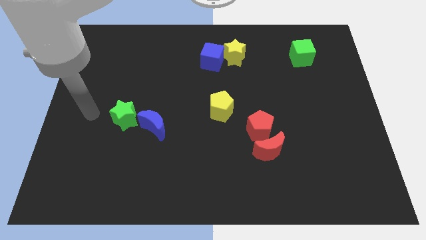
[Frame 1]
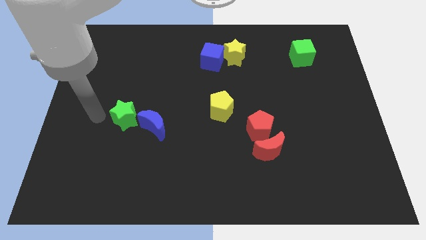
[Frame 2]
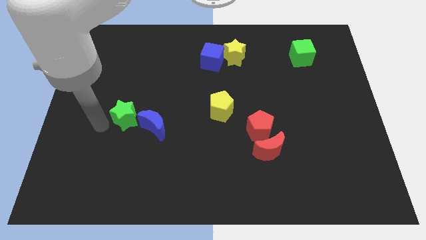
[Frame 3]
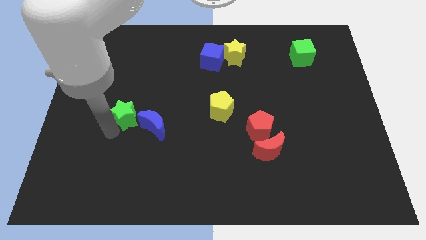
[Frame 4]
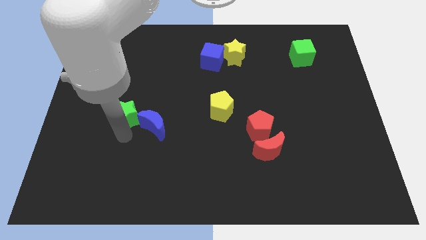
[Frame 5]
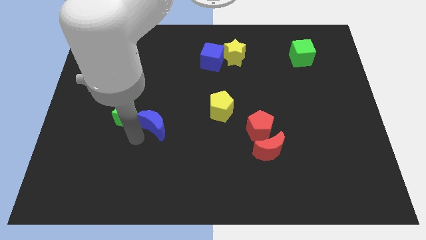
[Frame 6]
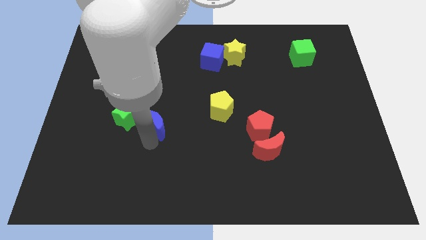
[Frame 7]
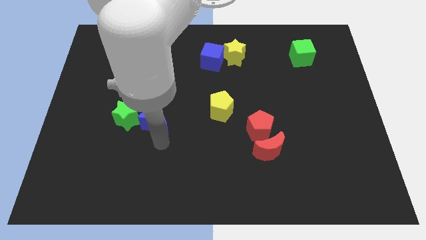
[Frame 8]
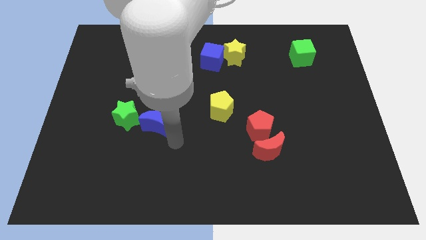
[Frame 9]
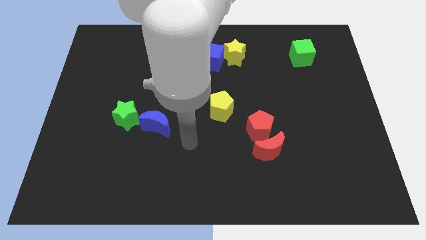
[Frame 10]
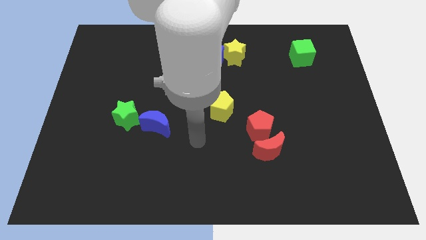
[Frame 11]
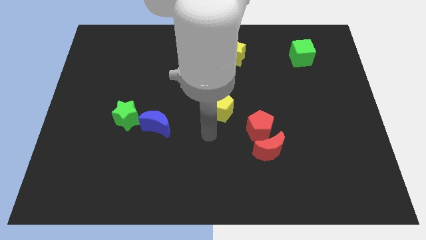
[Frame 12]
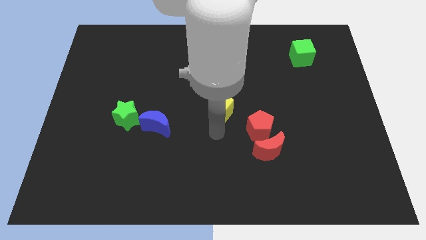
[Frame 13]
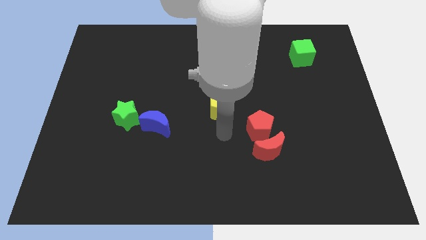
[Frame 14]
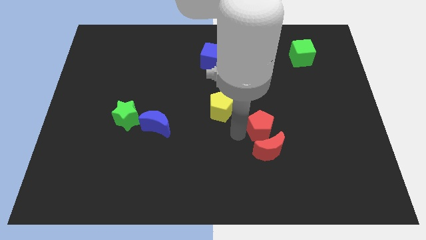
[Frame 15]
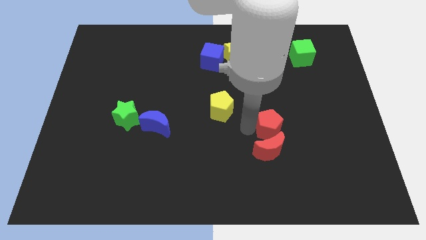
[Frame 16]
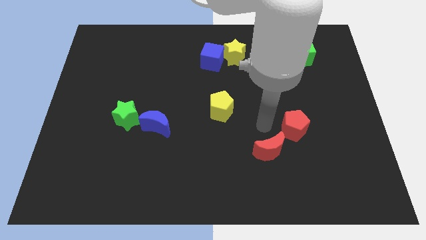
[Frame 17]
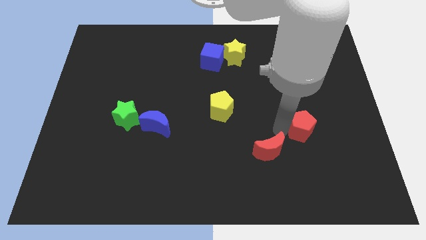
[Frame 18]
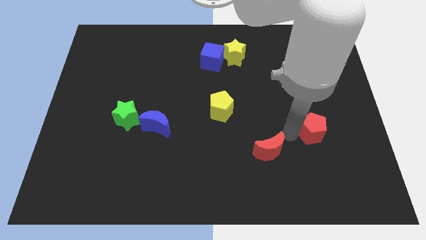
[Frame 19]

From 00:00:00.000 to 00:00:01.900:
pull the red moon apart from the red pentagon

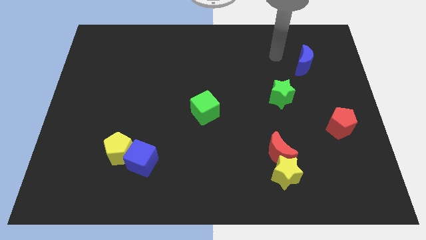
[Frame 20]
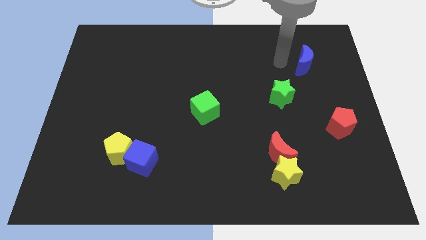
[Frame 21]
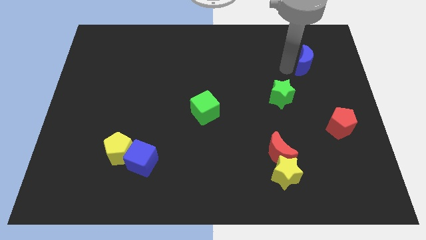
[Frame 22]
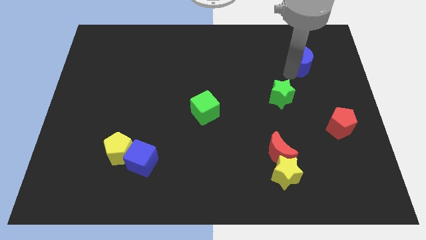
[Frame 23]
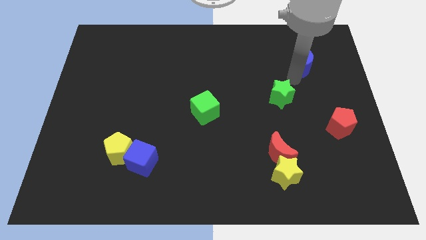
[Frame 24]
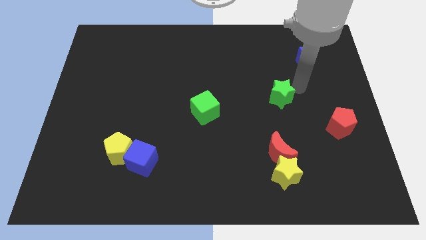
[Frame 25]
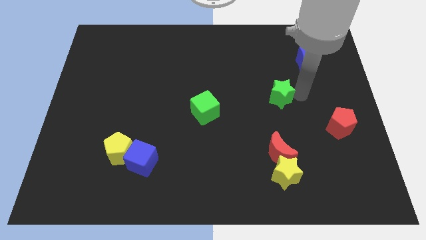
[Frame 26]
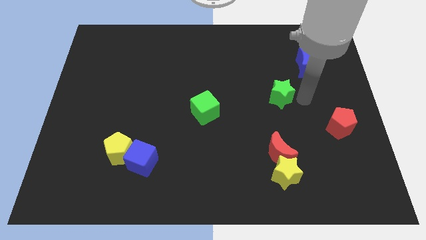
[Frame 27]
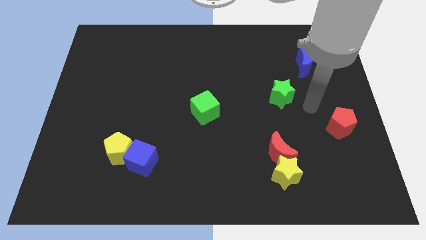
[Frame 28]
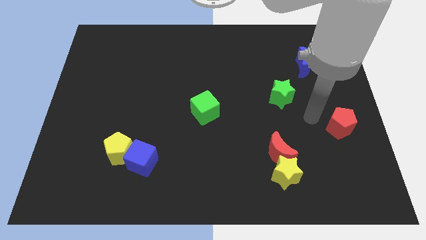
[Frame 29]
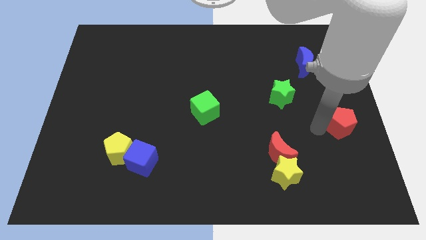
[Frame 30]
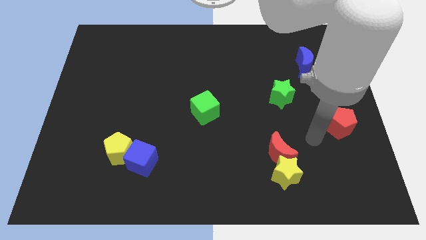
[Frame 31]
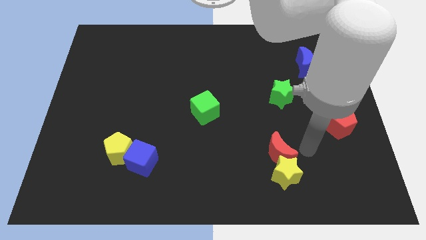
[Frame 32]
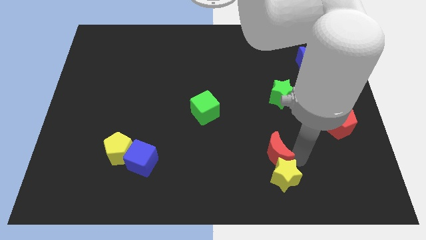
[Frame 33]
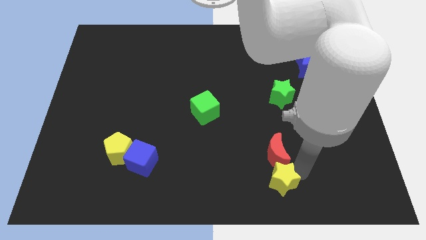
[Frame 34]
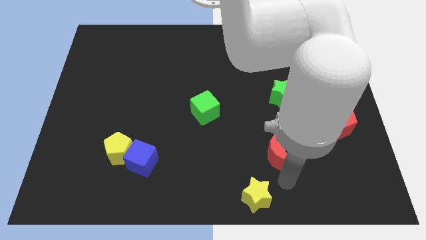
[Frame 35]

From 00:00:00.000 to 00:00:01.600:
move the red moon away from the yellow star

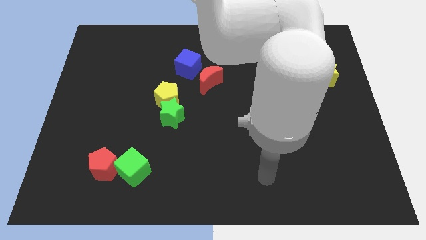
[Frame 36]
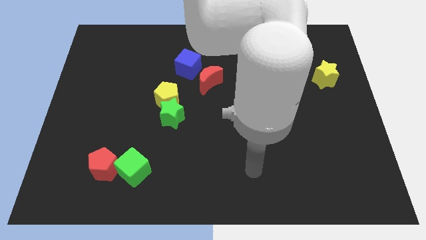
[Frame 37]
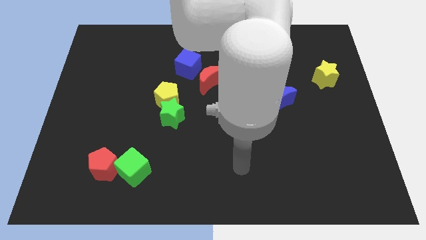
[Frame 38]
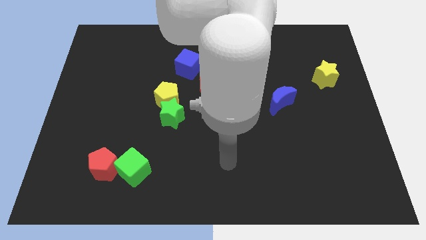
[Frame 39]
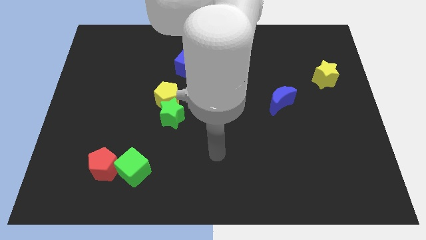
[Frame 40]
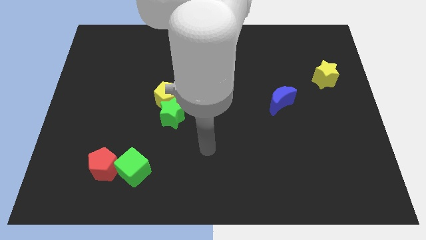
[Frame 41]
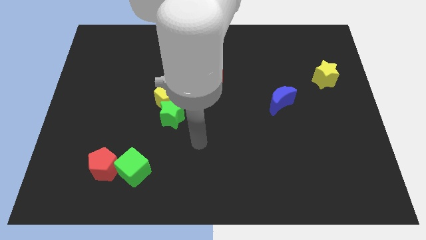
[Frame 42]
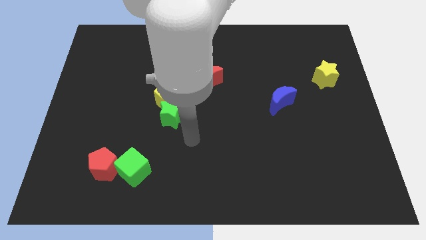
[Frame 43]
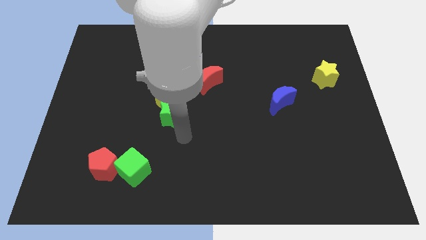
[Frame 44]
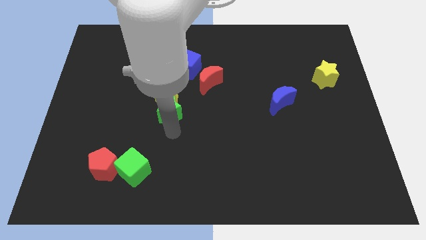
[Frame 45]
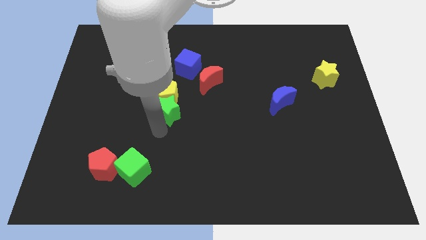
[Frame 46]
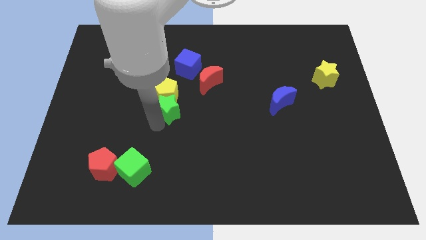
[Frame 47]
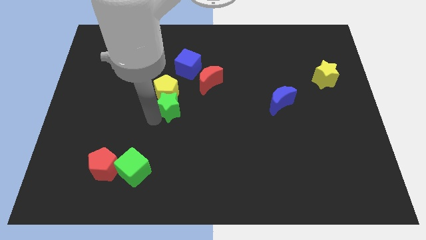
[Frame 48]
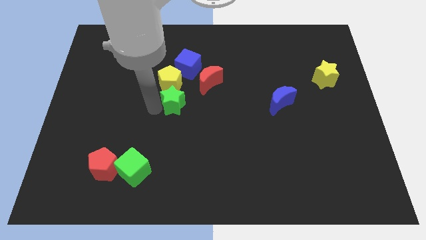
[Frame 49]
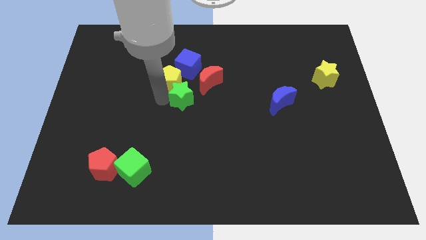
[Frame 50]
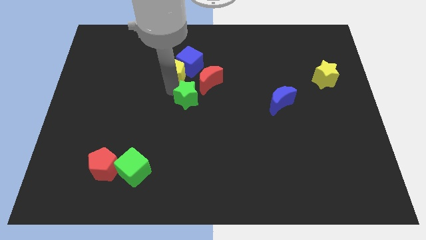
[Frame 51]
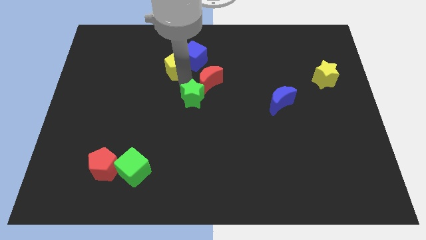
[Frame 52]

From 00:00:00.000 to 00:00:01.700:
separate the green star from the yellow pentagon

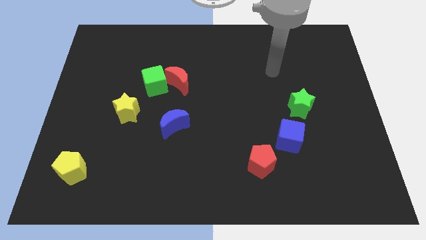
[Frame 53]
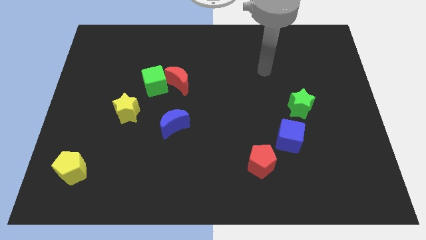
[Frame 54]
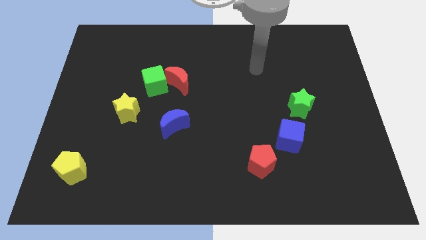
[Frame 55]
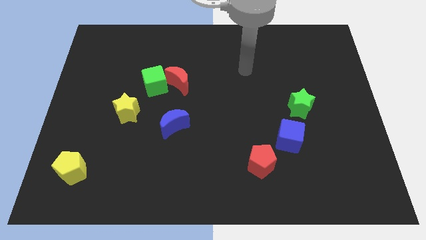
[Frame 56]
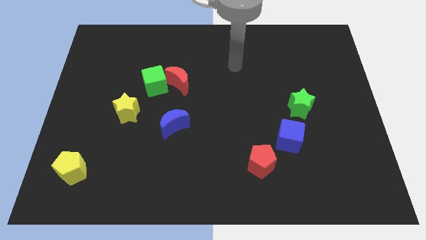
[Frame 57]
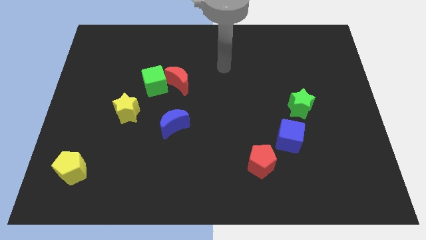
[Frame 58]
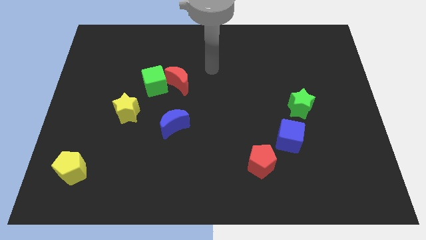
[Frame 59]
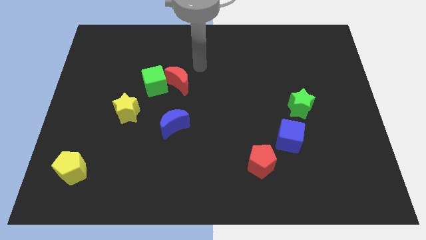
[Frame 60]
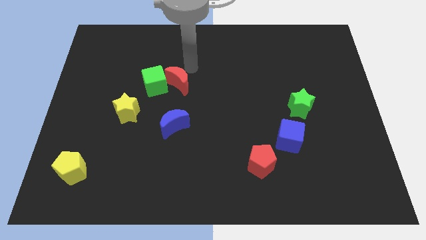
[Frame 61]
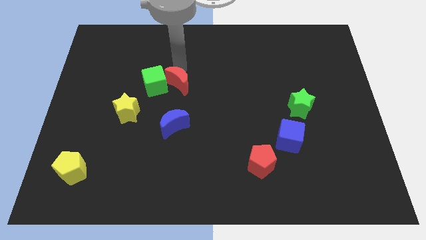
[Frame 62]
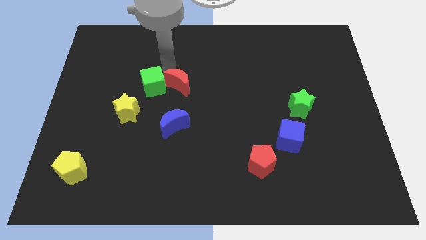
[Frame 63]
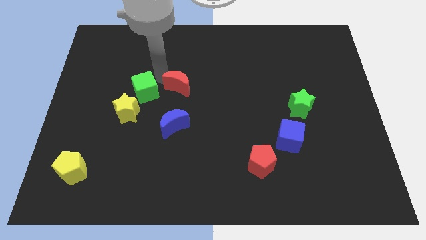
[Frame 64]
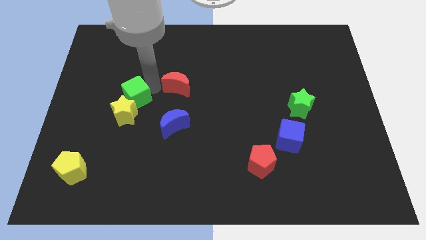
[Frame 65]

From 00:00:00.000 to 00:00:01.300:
move the red moon away from the green cube

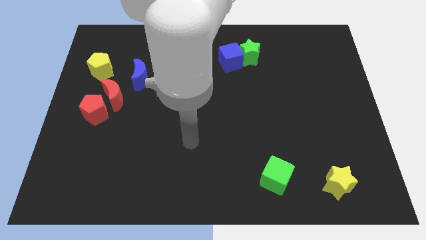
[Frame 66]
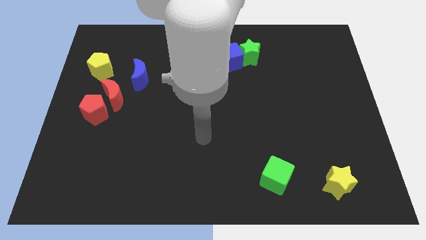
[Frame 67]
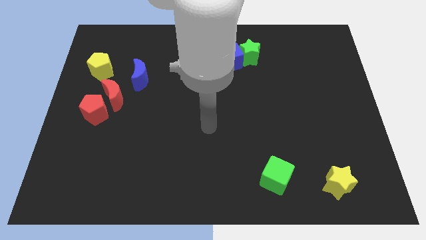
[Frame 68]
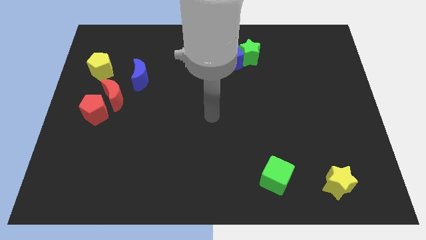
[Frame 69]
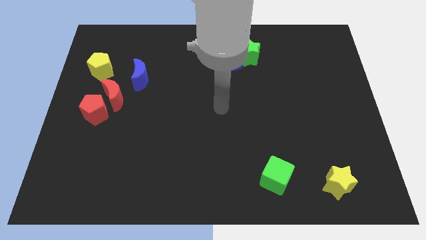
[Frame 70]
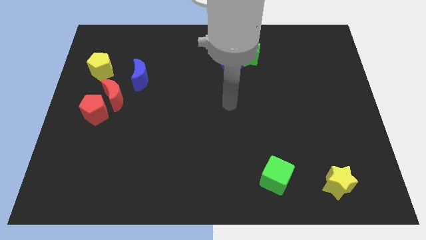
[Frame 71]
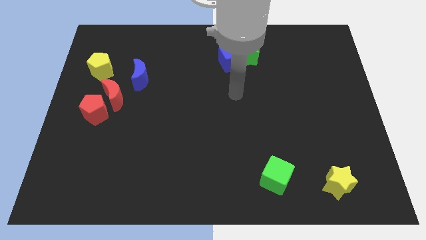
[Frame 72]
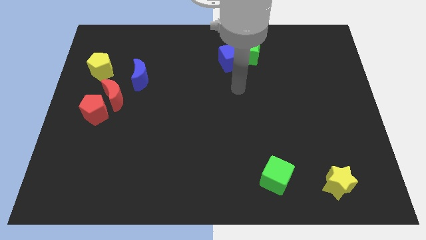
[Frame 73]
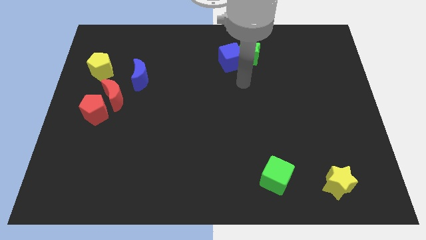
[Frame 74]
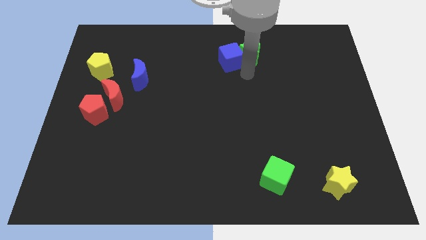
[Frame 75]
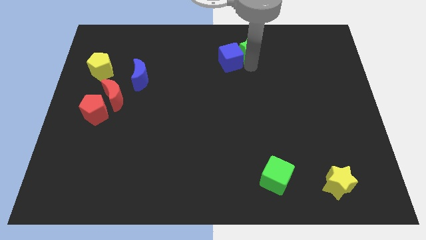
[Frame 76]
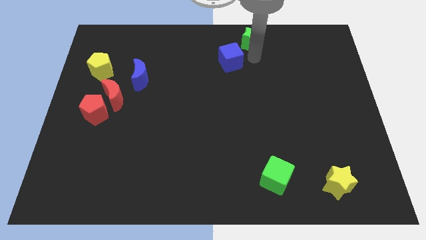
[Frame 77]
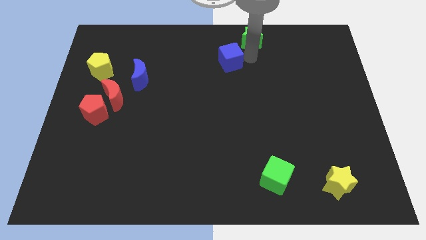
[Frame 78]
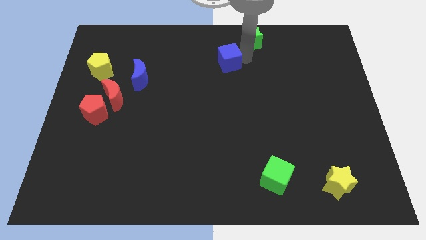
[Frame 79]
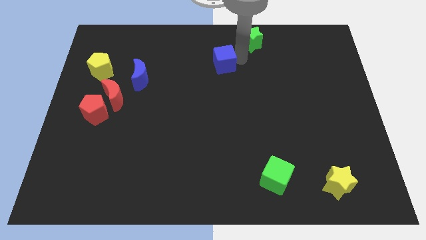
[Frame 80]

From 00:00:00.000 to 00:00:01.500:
move the blue cube away from the green star

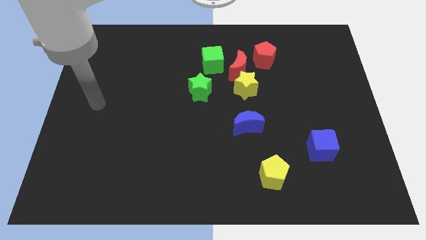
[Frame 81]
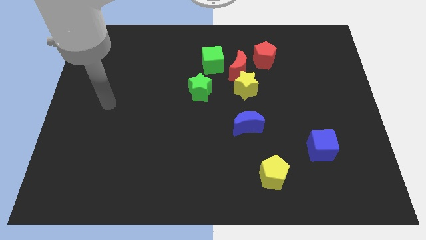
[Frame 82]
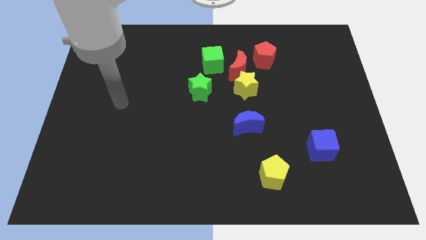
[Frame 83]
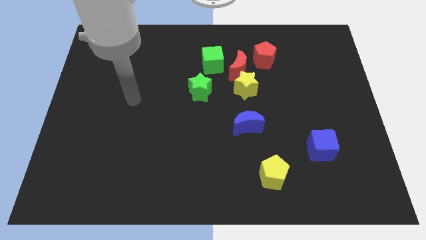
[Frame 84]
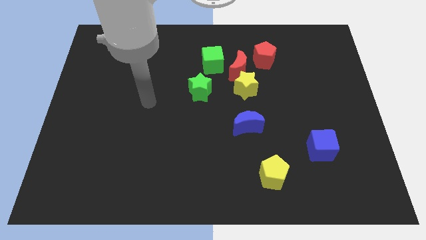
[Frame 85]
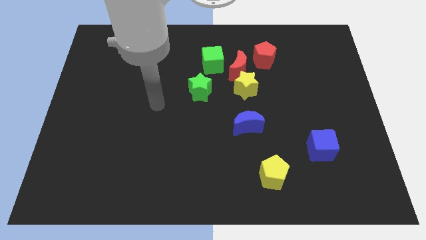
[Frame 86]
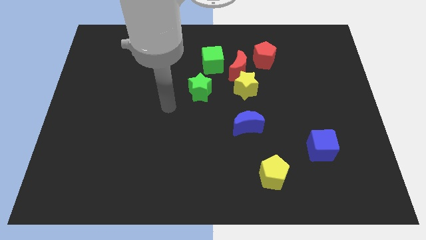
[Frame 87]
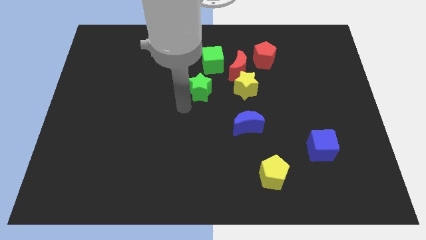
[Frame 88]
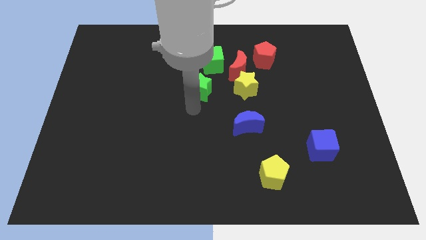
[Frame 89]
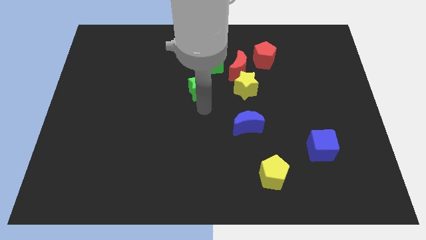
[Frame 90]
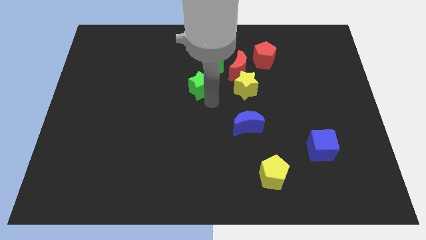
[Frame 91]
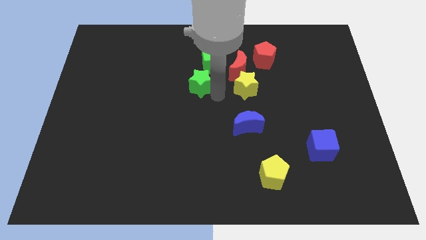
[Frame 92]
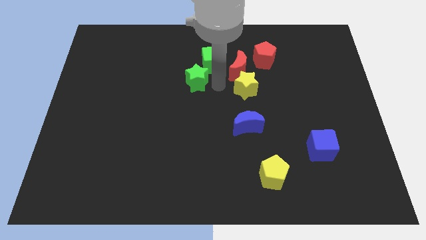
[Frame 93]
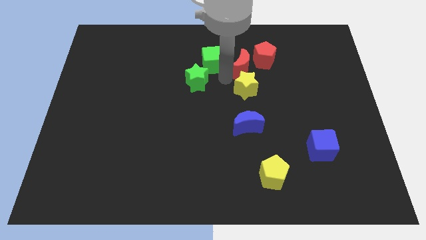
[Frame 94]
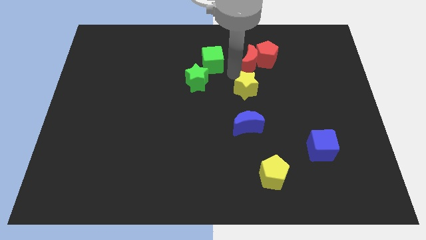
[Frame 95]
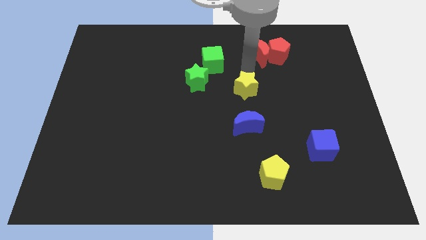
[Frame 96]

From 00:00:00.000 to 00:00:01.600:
pull the yellow star apart from the red moon
